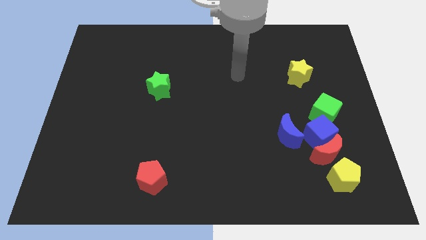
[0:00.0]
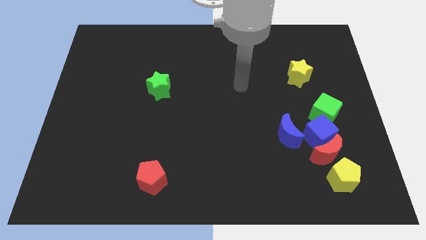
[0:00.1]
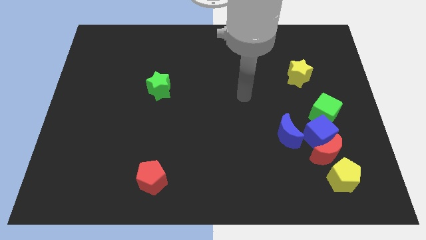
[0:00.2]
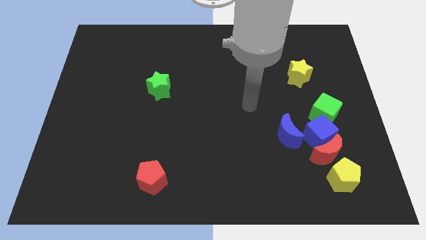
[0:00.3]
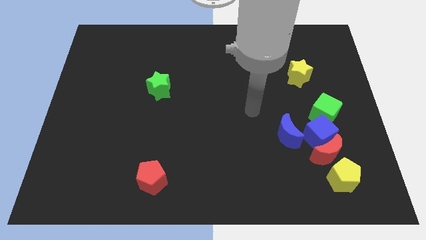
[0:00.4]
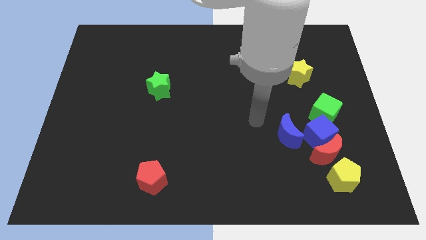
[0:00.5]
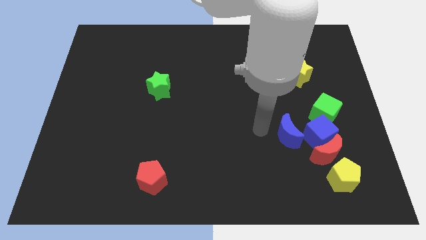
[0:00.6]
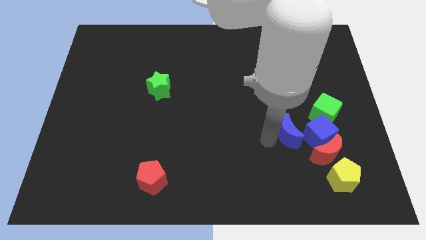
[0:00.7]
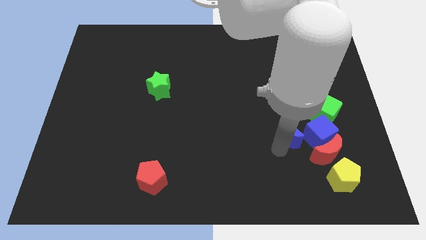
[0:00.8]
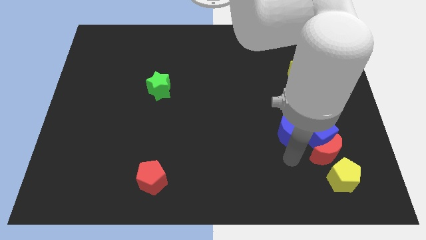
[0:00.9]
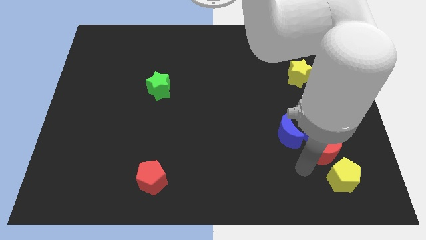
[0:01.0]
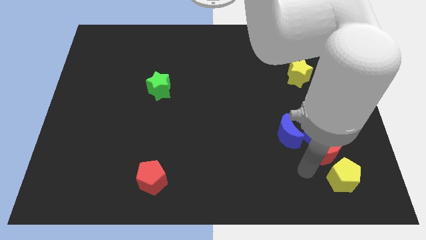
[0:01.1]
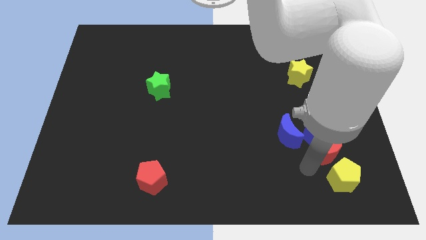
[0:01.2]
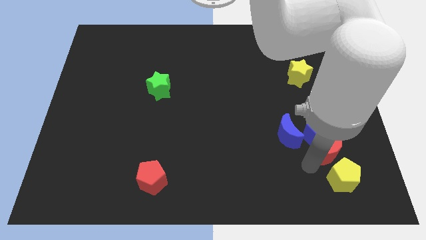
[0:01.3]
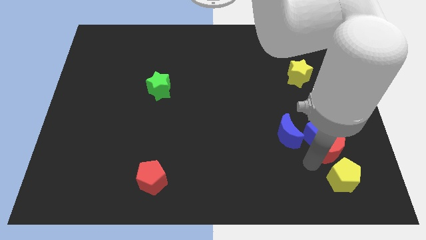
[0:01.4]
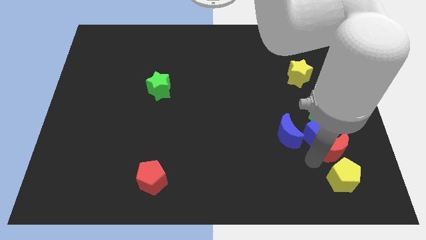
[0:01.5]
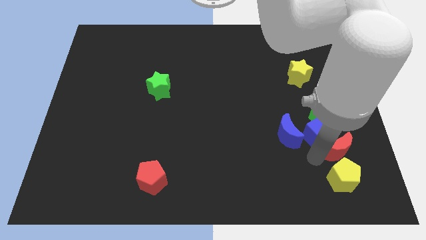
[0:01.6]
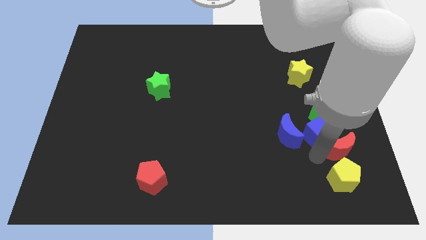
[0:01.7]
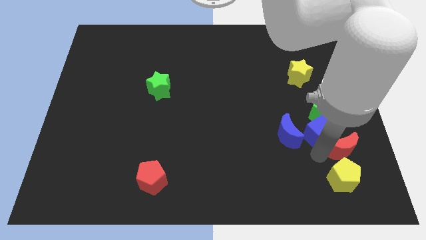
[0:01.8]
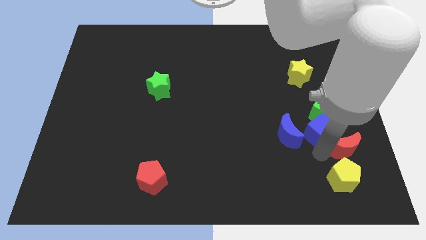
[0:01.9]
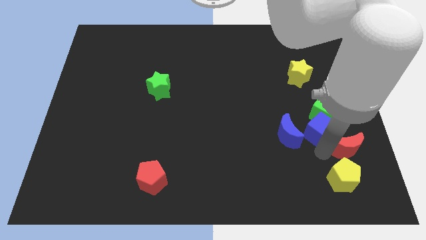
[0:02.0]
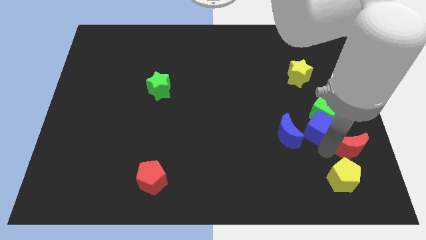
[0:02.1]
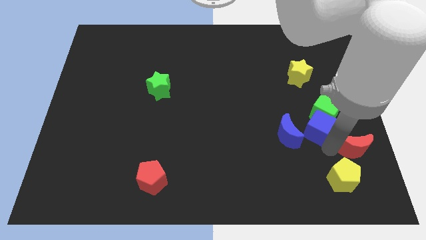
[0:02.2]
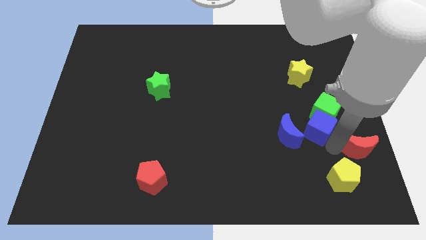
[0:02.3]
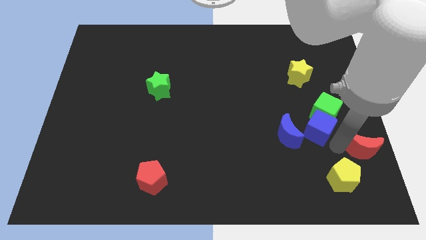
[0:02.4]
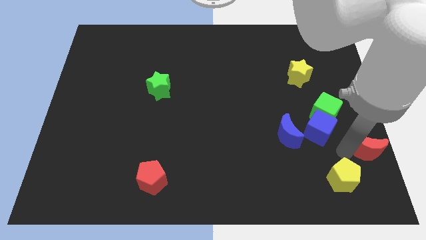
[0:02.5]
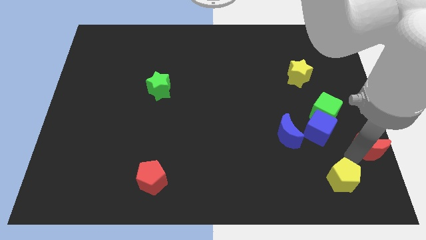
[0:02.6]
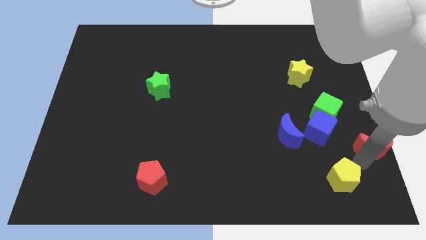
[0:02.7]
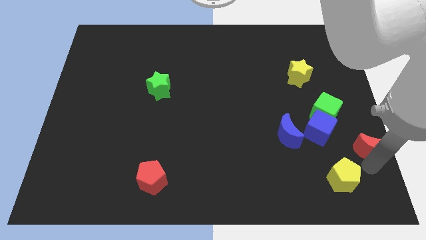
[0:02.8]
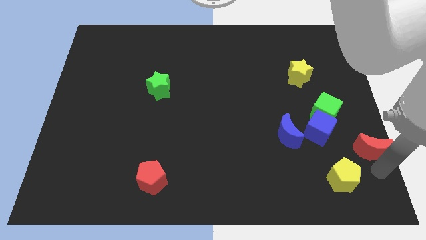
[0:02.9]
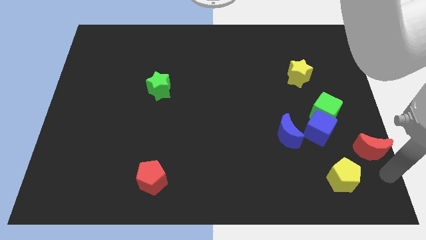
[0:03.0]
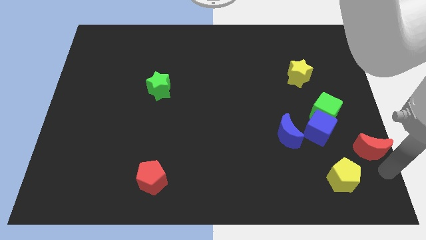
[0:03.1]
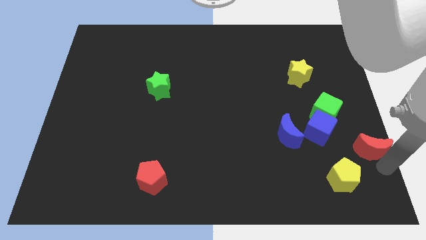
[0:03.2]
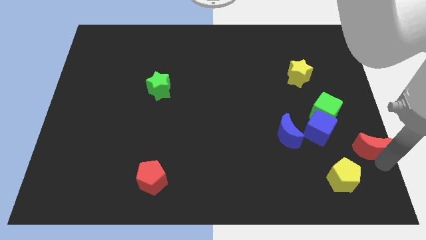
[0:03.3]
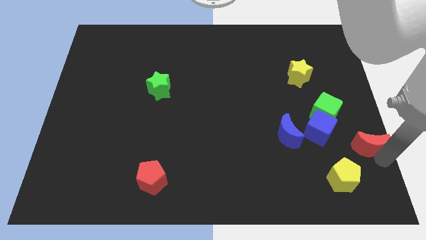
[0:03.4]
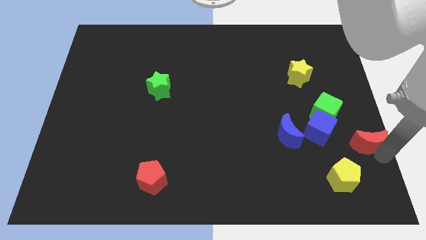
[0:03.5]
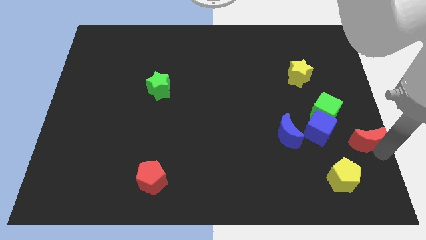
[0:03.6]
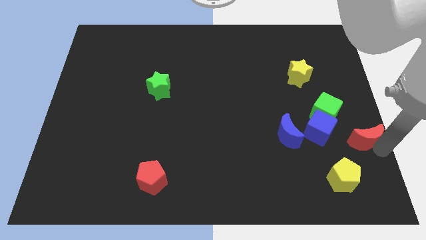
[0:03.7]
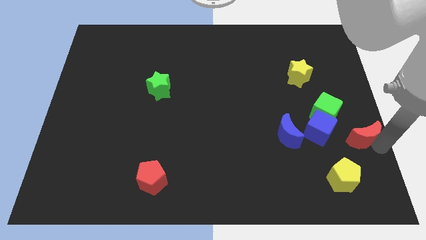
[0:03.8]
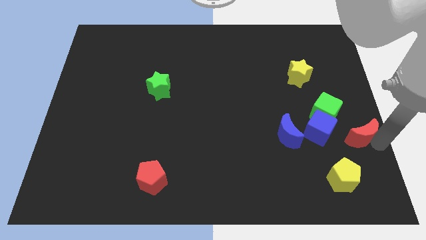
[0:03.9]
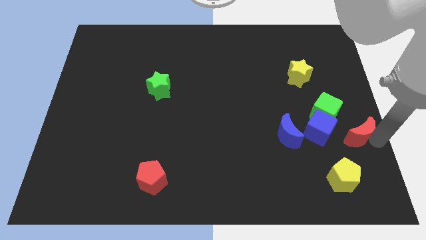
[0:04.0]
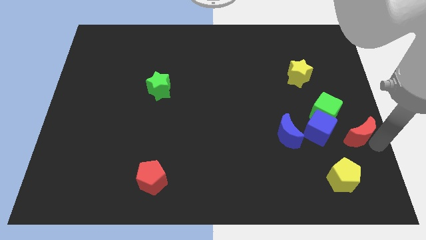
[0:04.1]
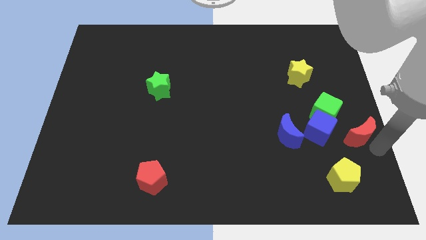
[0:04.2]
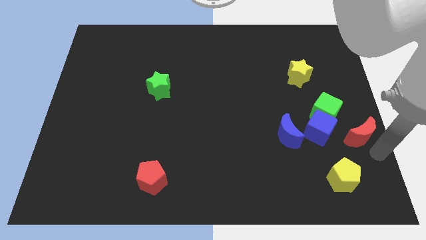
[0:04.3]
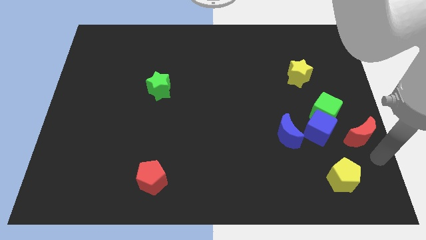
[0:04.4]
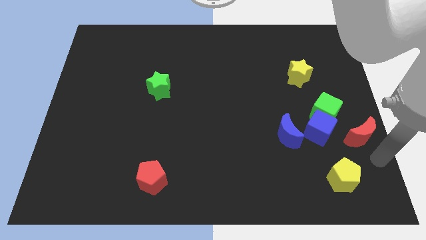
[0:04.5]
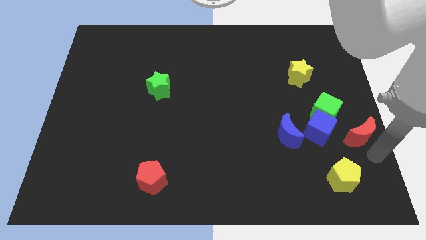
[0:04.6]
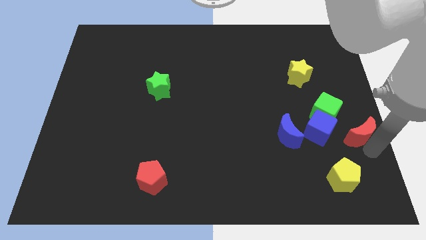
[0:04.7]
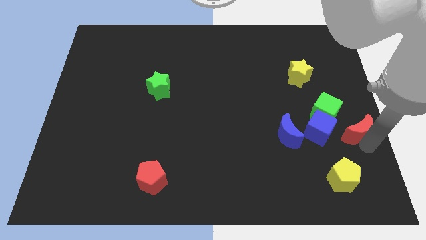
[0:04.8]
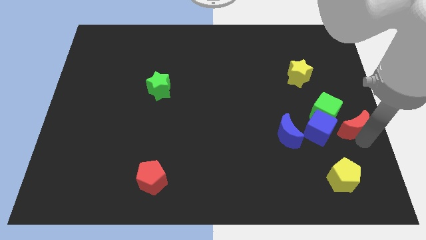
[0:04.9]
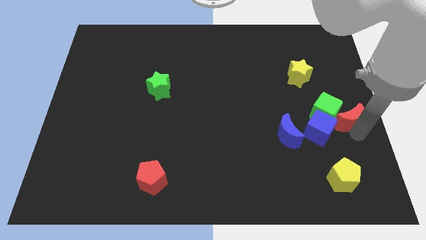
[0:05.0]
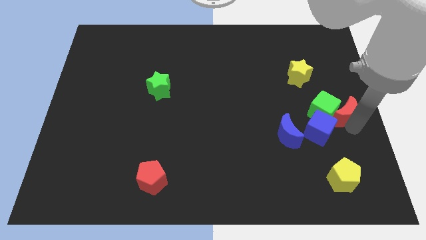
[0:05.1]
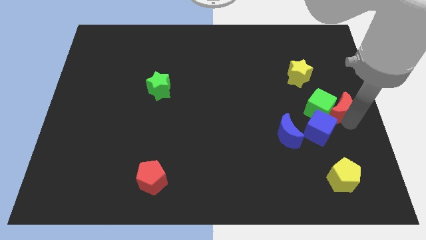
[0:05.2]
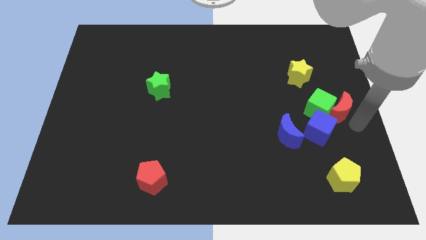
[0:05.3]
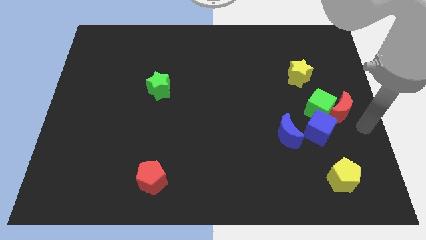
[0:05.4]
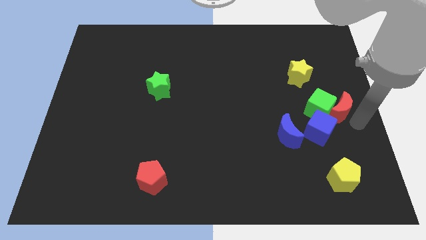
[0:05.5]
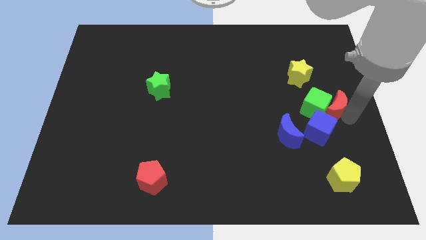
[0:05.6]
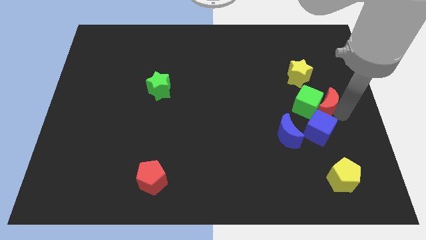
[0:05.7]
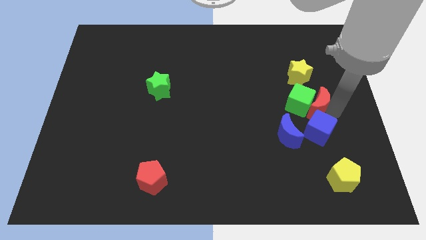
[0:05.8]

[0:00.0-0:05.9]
slide the red moon to the bottom of the yellow star

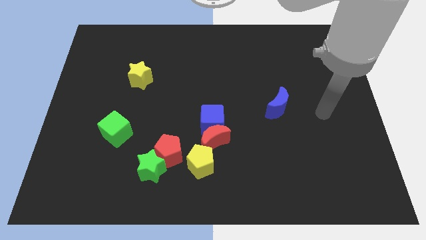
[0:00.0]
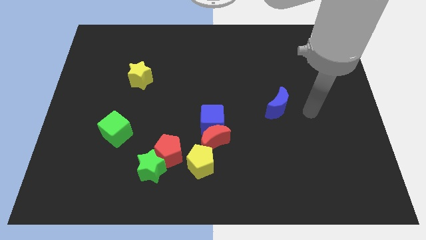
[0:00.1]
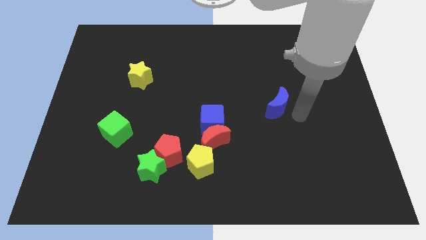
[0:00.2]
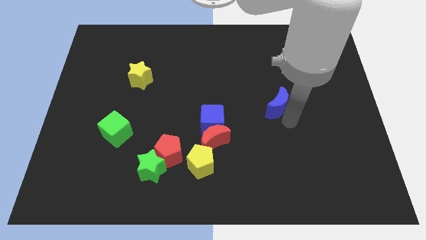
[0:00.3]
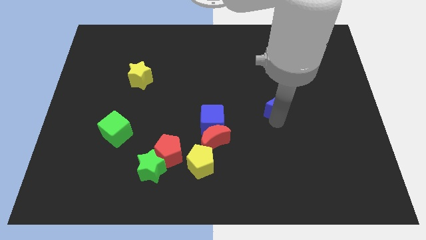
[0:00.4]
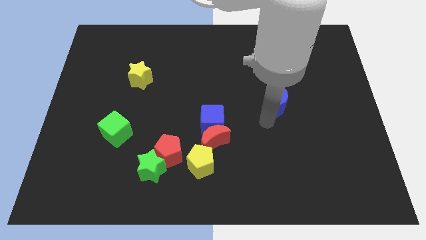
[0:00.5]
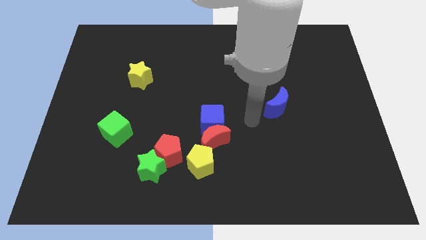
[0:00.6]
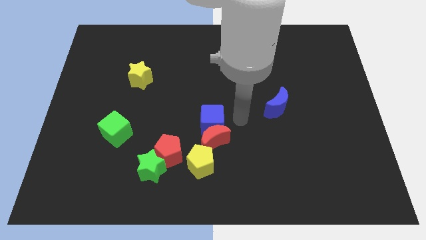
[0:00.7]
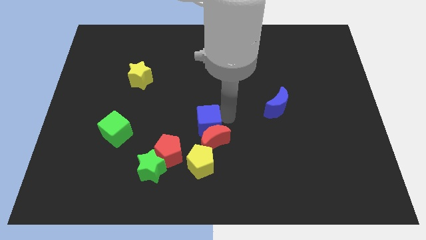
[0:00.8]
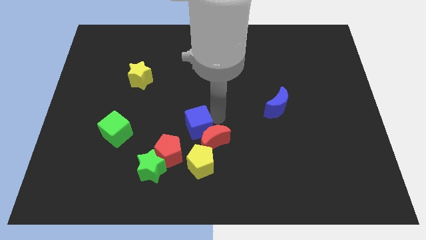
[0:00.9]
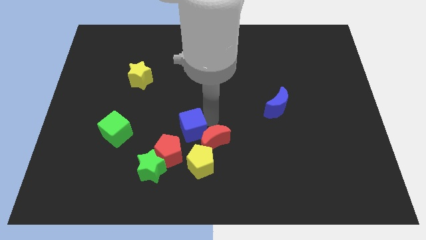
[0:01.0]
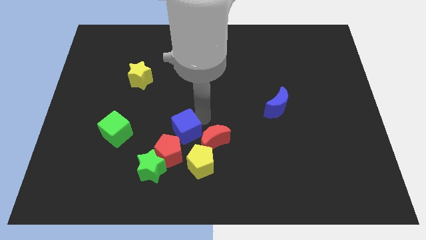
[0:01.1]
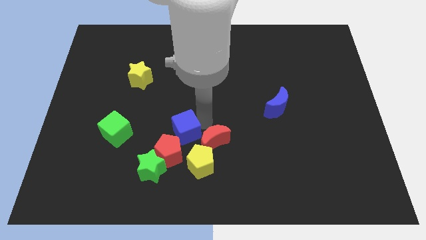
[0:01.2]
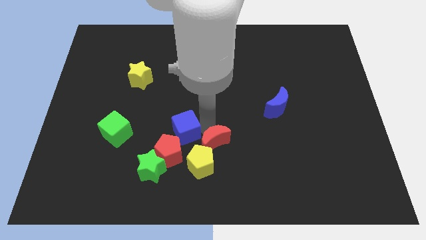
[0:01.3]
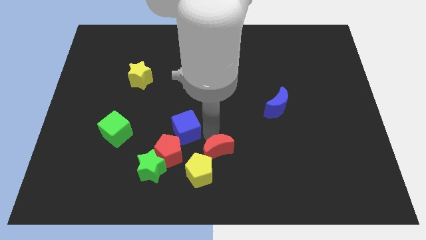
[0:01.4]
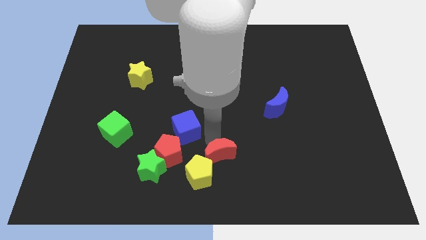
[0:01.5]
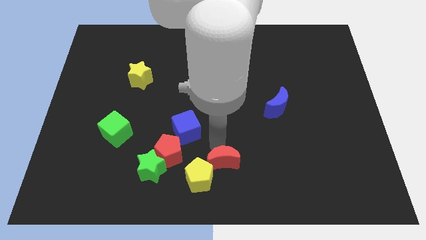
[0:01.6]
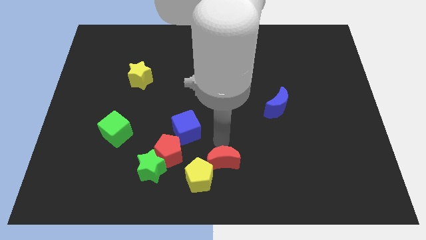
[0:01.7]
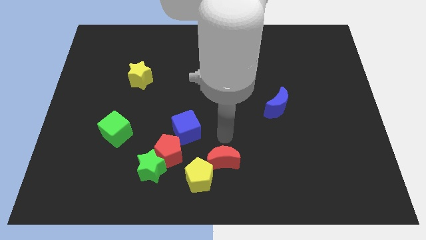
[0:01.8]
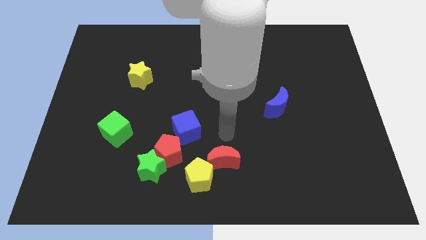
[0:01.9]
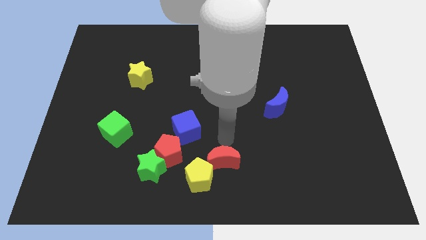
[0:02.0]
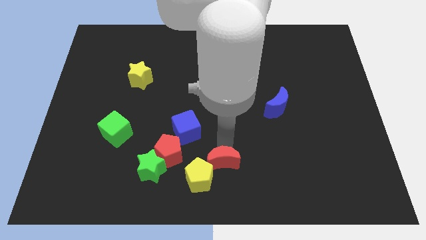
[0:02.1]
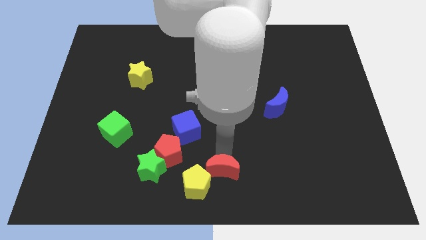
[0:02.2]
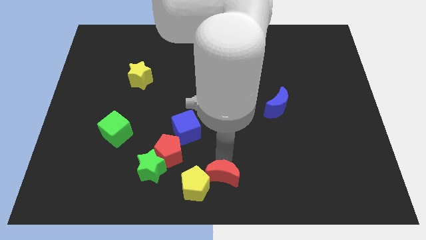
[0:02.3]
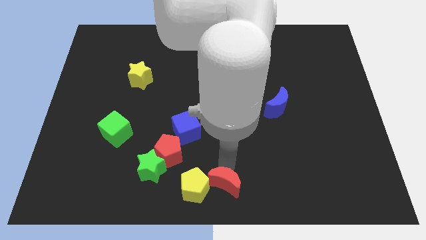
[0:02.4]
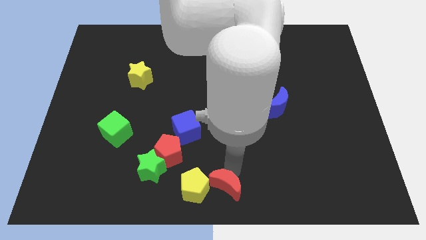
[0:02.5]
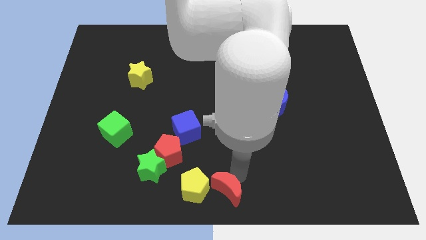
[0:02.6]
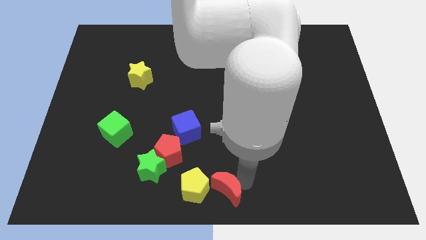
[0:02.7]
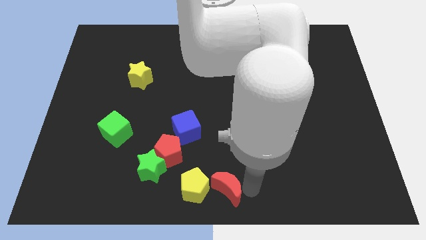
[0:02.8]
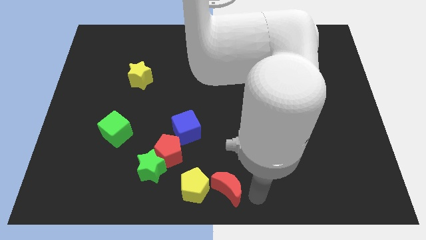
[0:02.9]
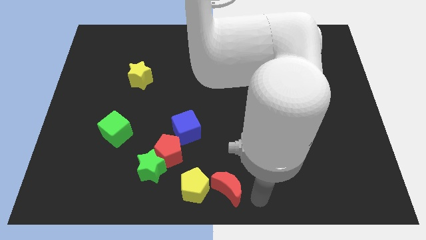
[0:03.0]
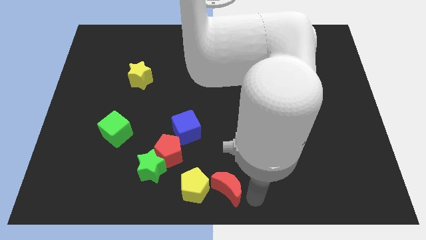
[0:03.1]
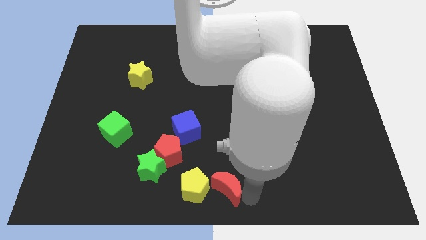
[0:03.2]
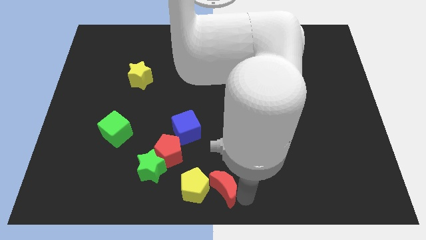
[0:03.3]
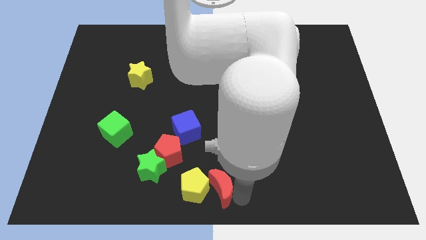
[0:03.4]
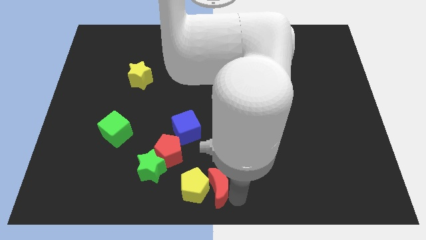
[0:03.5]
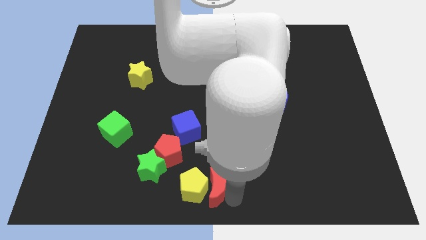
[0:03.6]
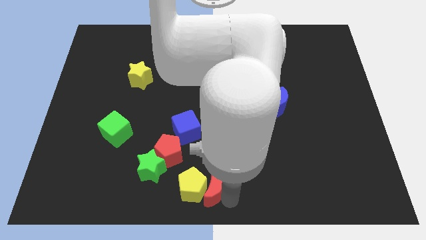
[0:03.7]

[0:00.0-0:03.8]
slide the red moon diagonally down and to the right of the red pentagon
